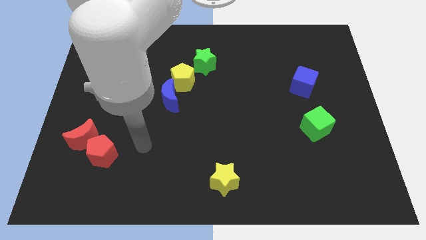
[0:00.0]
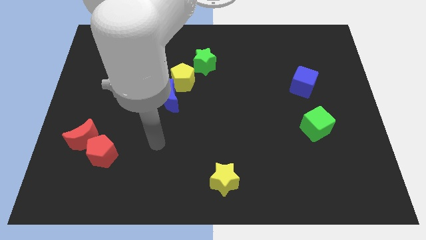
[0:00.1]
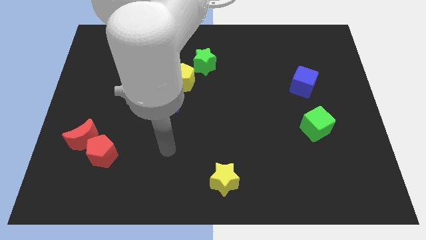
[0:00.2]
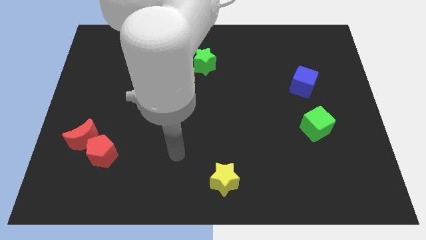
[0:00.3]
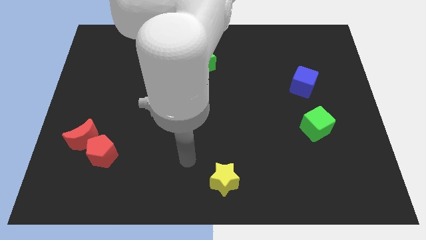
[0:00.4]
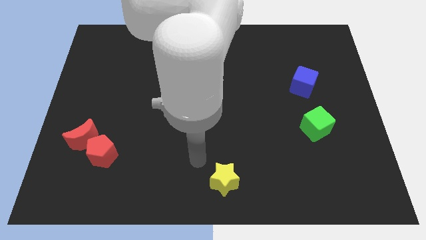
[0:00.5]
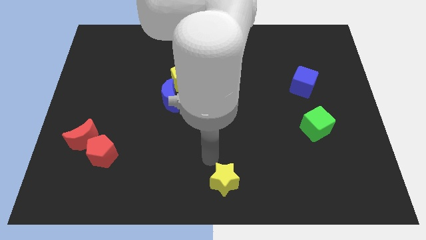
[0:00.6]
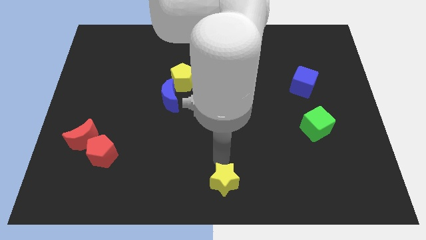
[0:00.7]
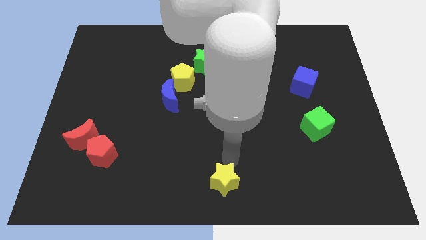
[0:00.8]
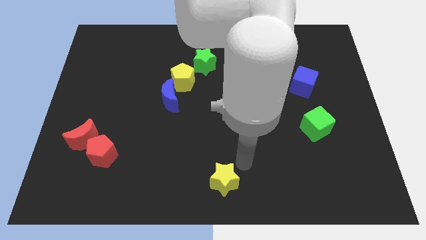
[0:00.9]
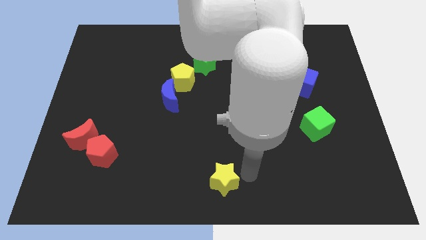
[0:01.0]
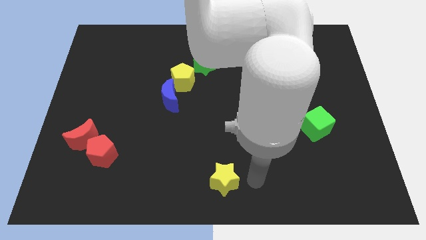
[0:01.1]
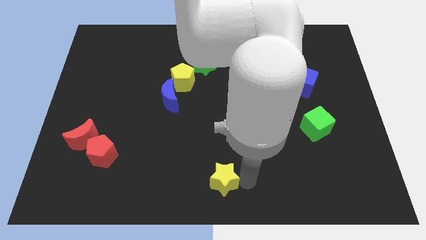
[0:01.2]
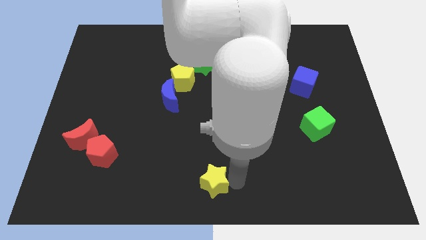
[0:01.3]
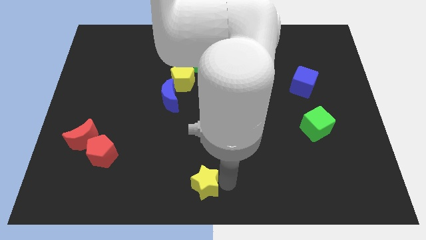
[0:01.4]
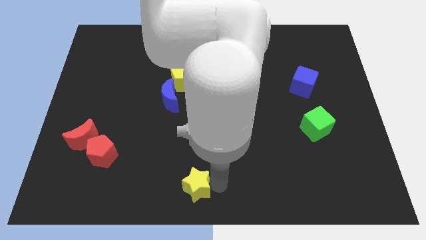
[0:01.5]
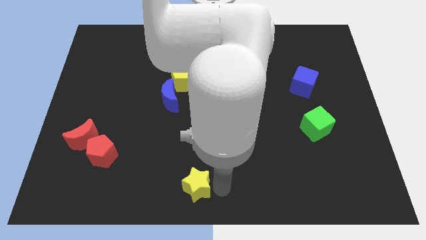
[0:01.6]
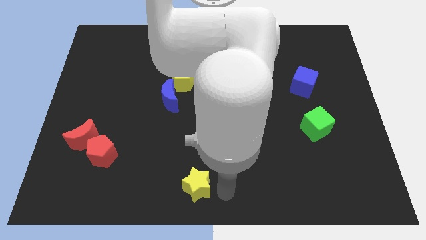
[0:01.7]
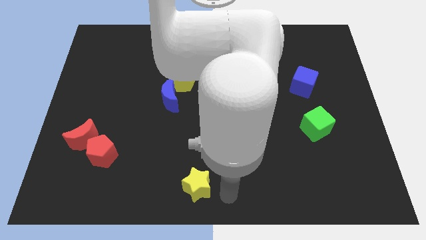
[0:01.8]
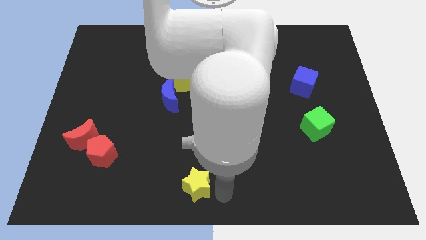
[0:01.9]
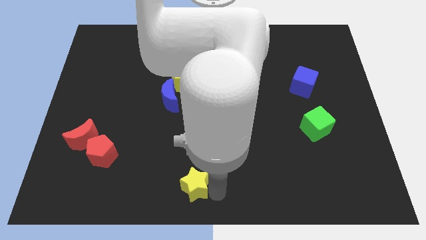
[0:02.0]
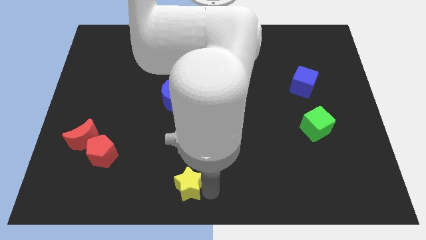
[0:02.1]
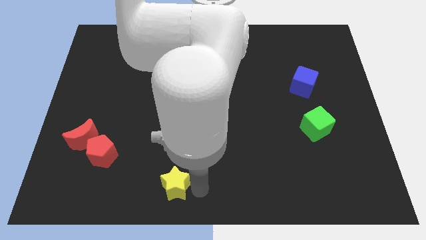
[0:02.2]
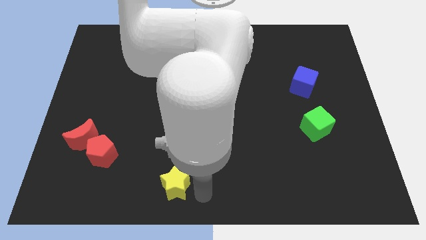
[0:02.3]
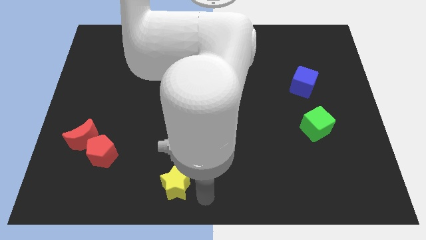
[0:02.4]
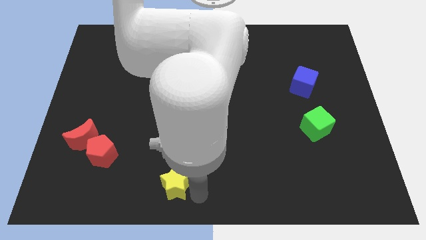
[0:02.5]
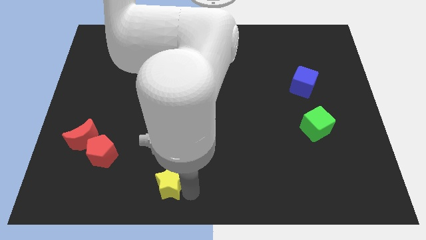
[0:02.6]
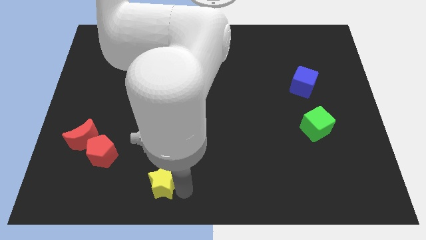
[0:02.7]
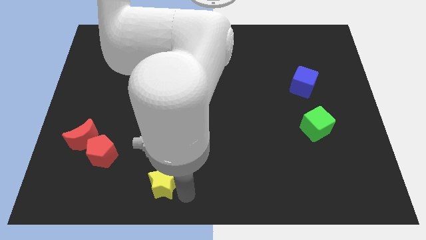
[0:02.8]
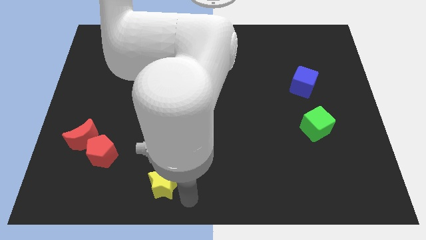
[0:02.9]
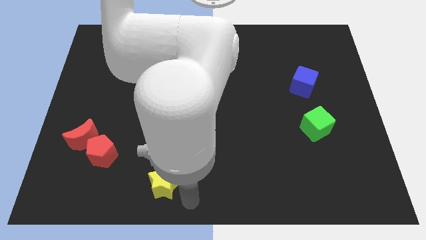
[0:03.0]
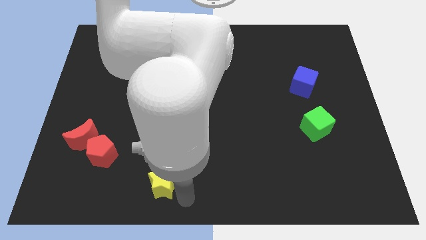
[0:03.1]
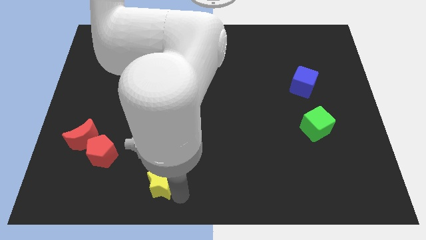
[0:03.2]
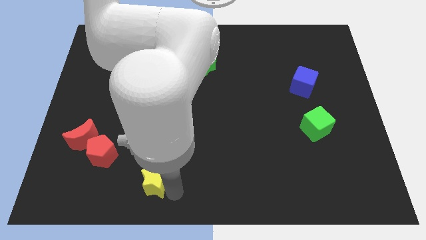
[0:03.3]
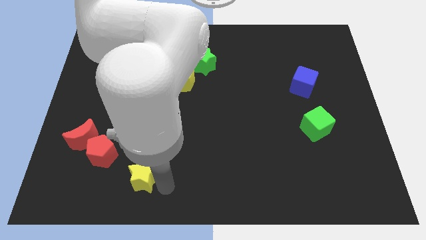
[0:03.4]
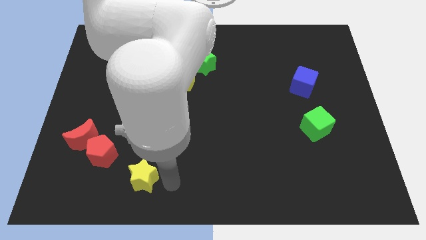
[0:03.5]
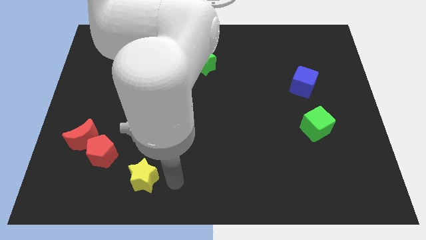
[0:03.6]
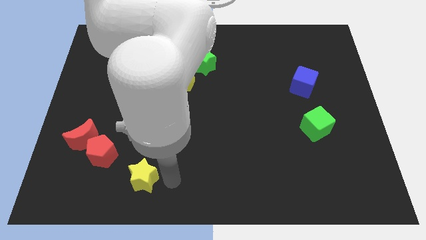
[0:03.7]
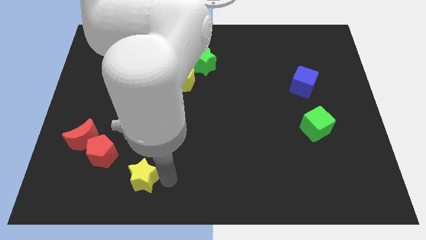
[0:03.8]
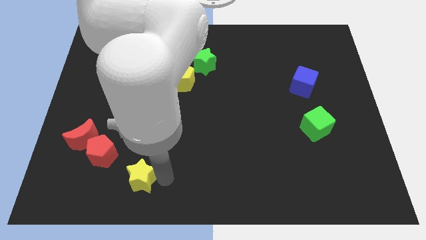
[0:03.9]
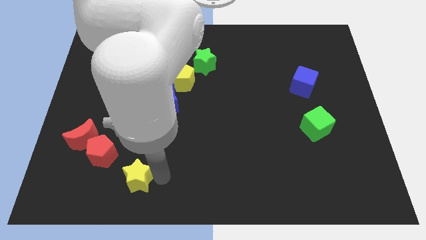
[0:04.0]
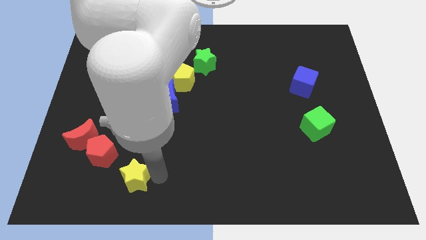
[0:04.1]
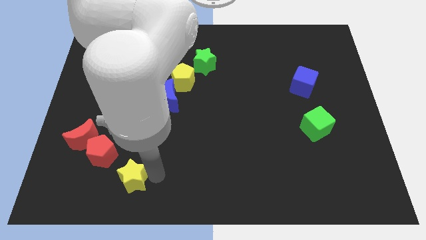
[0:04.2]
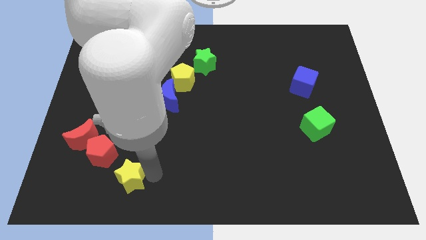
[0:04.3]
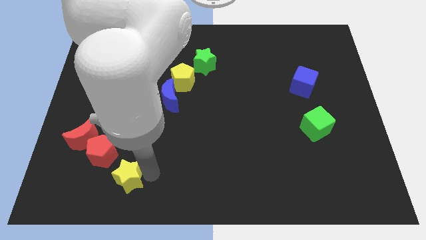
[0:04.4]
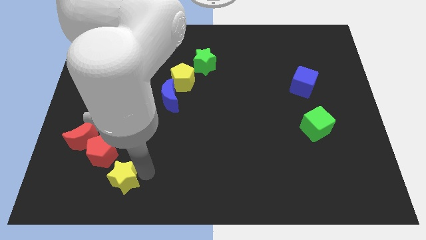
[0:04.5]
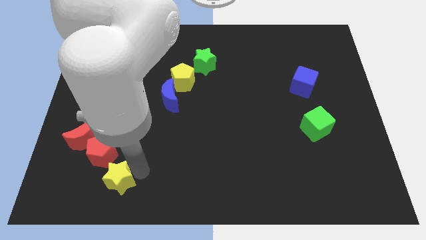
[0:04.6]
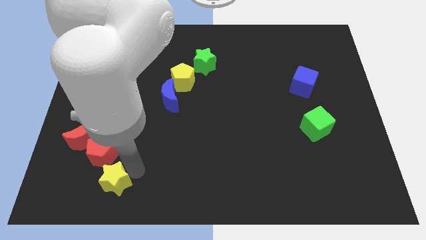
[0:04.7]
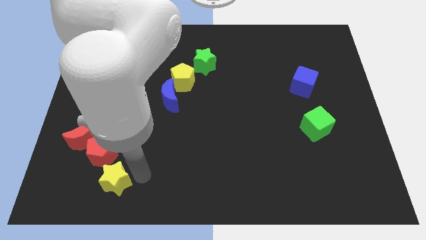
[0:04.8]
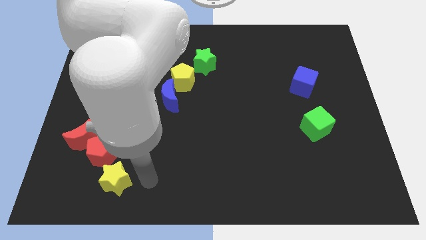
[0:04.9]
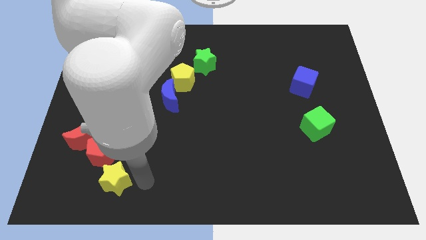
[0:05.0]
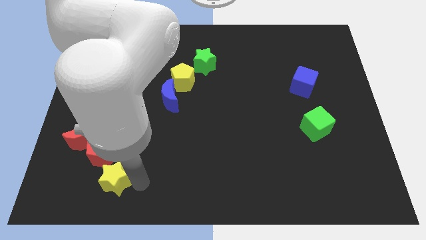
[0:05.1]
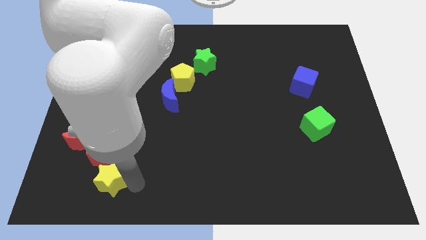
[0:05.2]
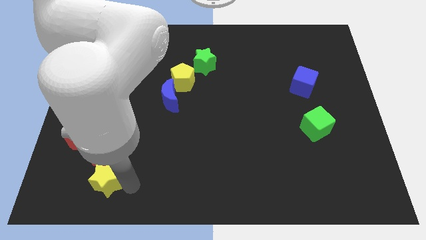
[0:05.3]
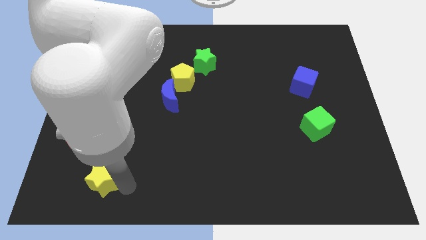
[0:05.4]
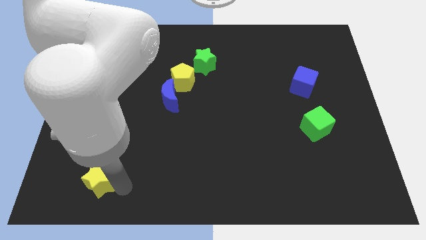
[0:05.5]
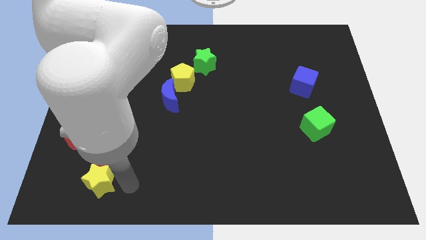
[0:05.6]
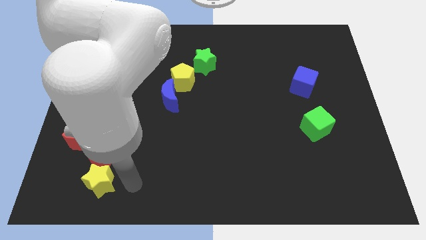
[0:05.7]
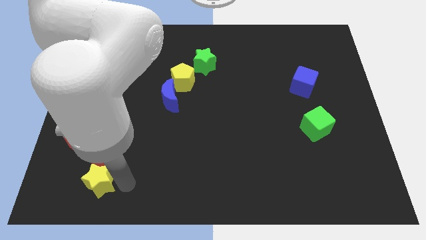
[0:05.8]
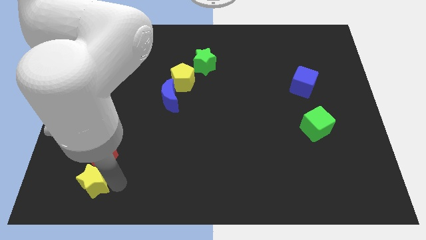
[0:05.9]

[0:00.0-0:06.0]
slide the yellow star below the red moon
